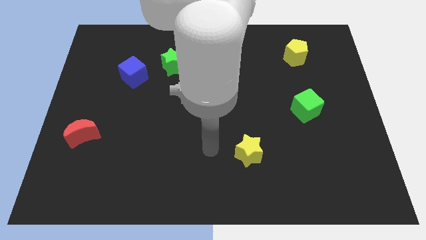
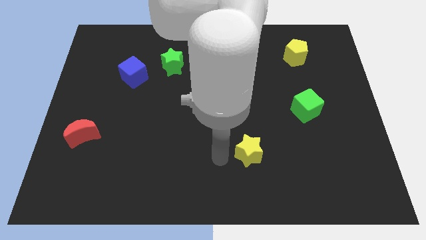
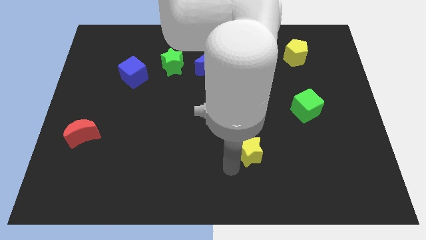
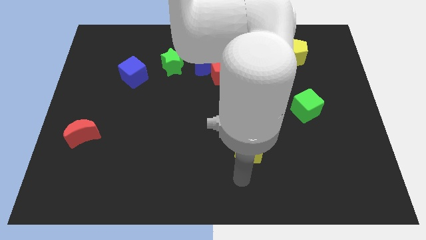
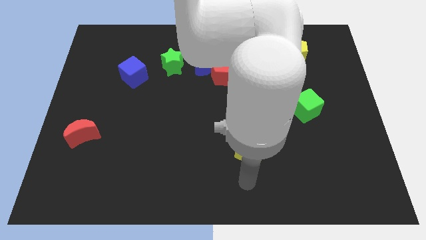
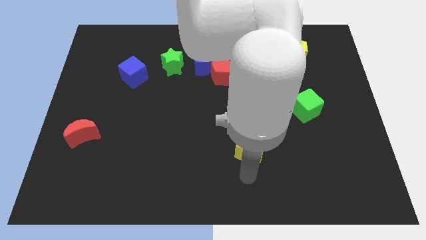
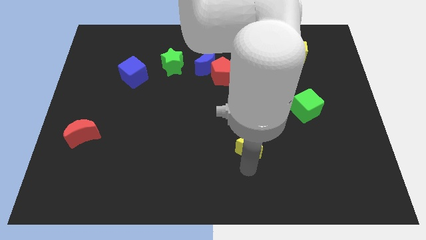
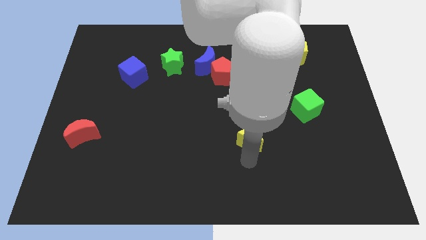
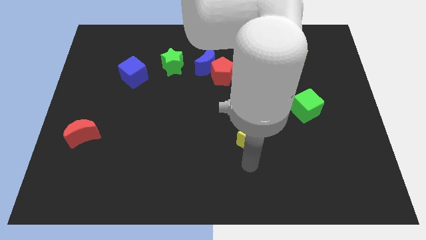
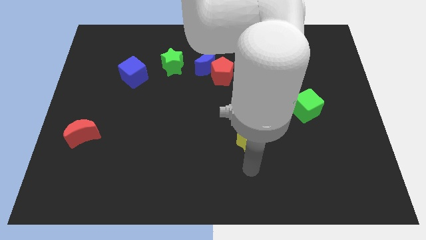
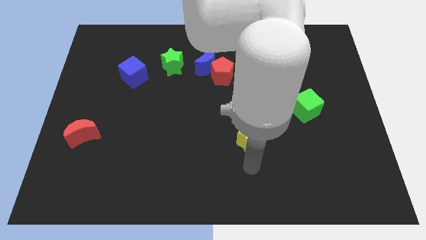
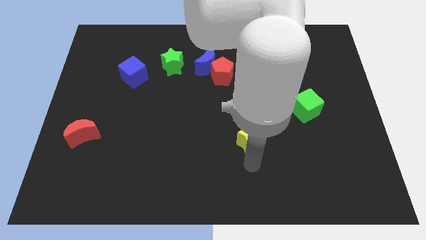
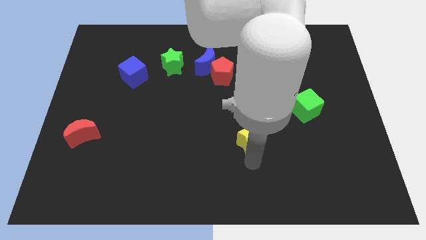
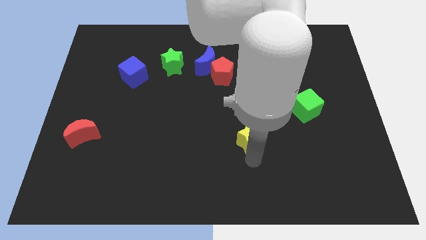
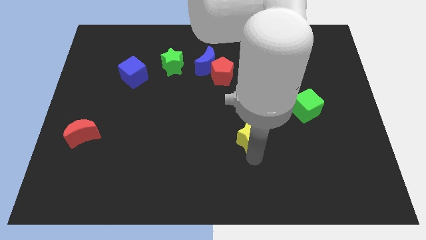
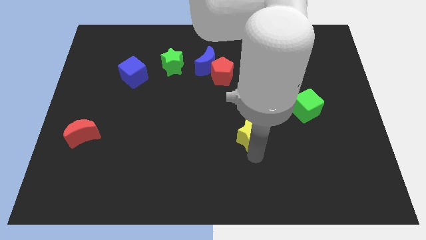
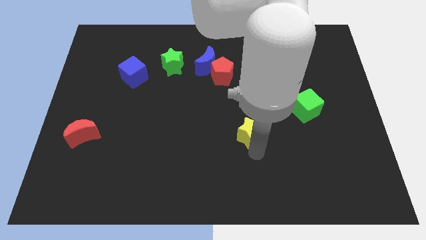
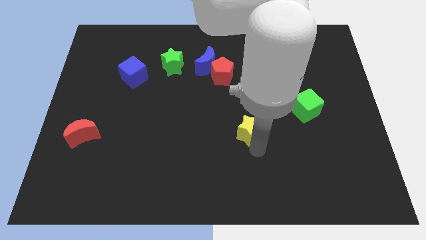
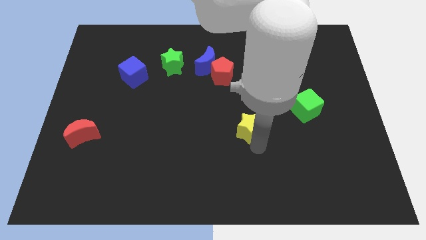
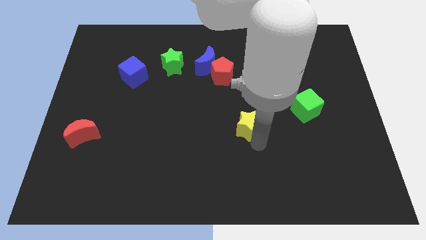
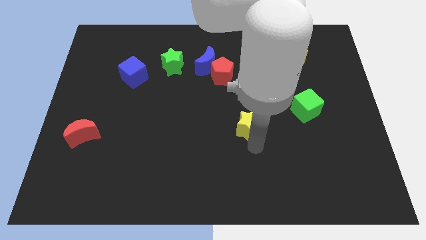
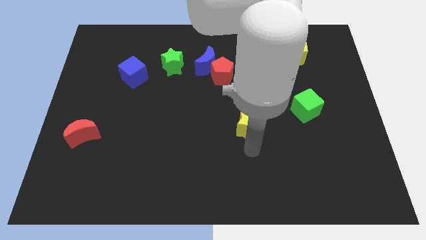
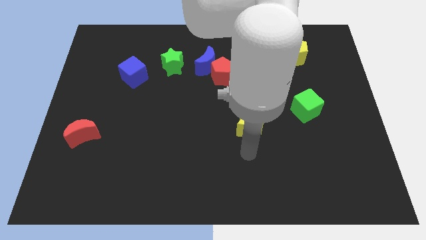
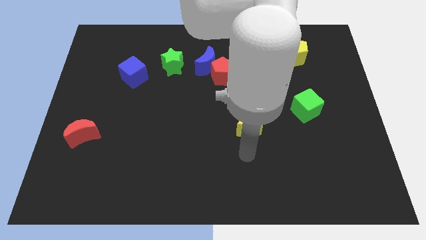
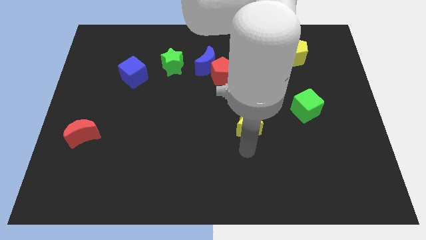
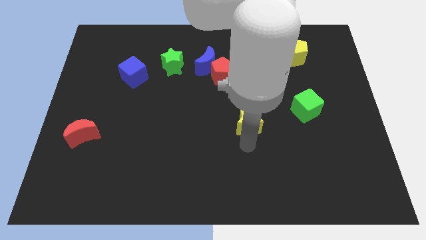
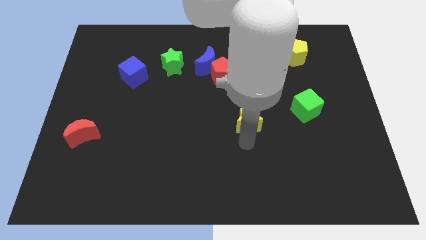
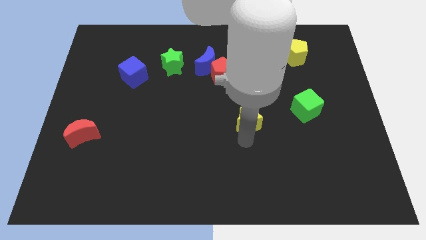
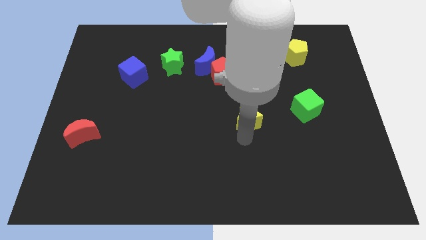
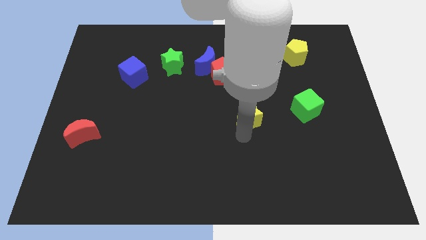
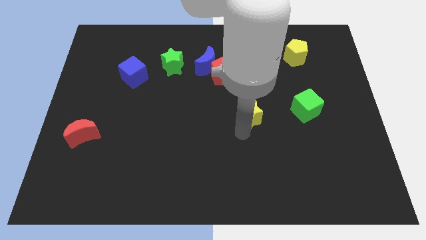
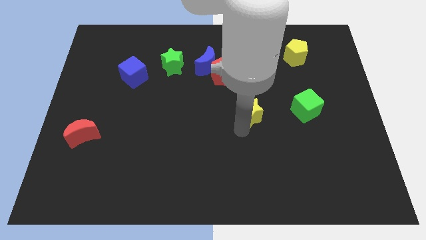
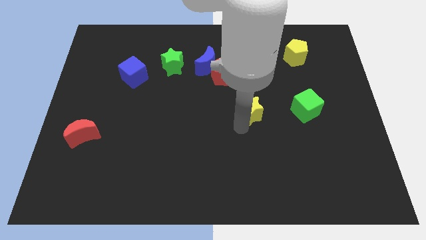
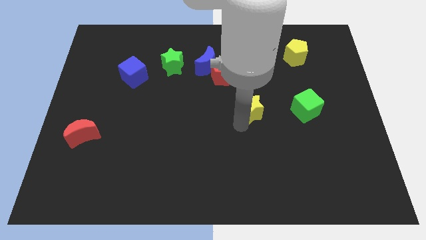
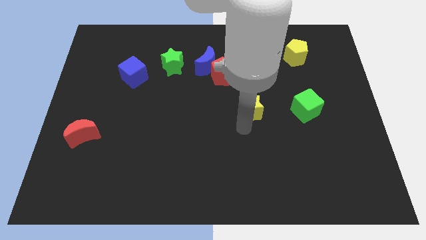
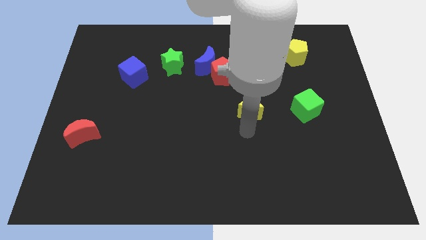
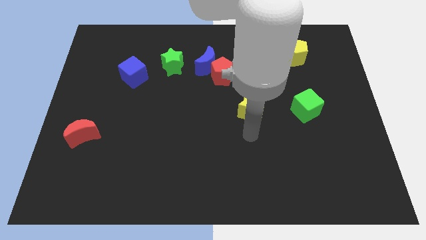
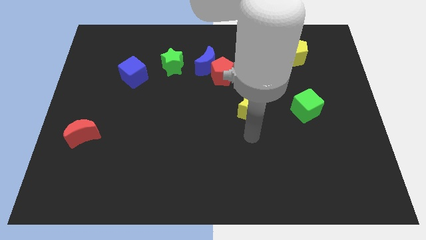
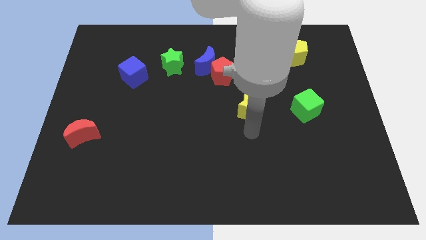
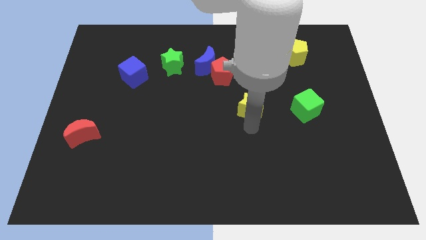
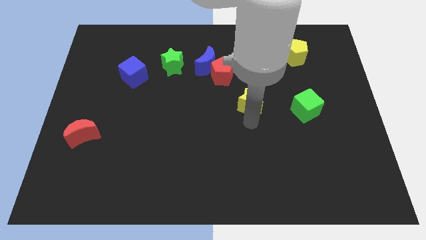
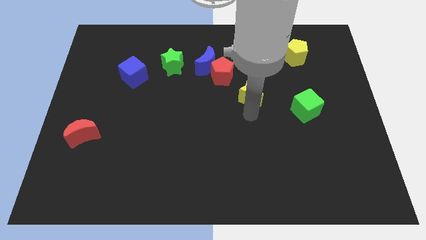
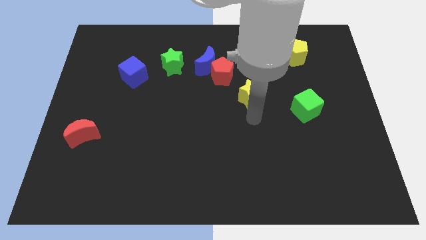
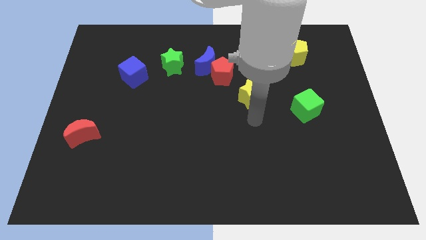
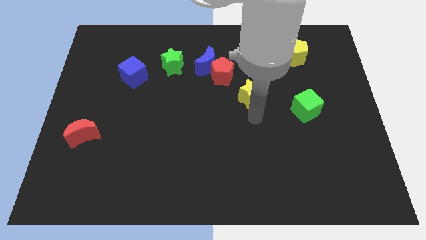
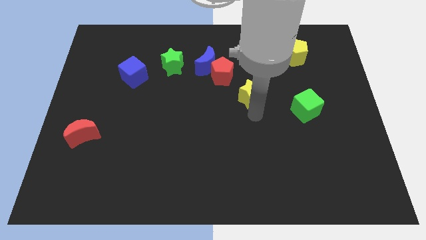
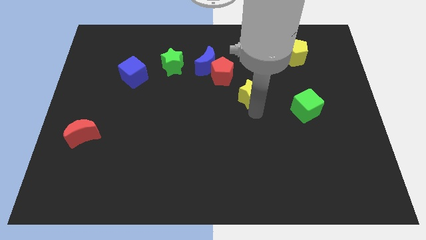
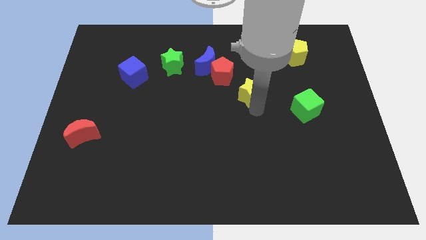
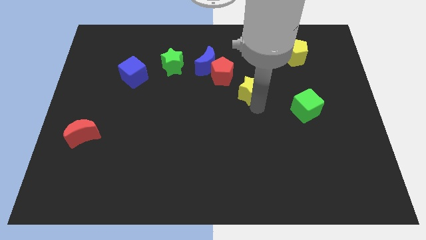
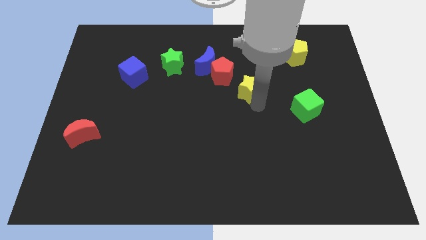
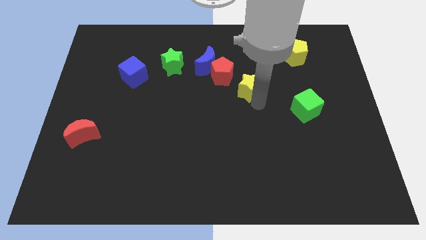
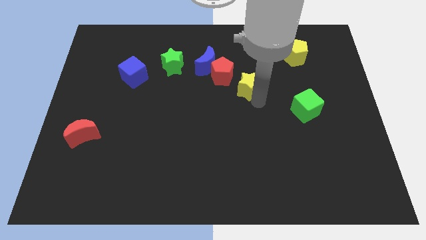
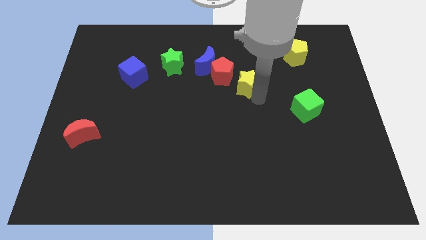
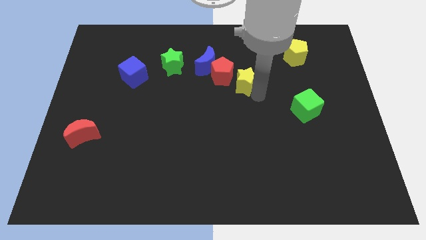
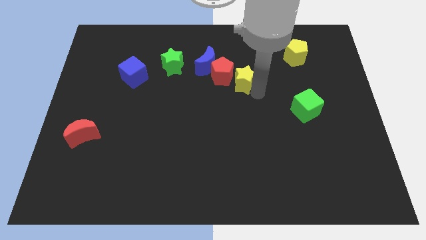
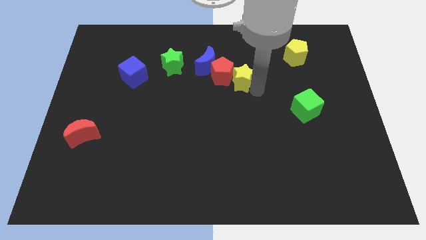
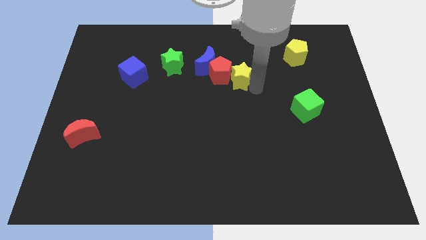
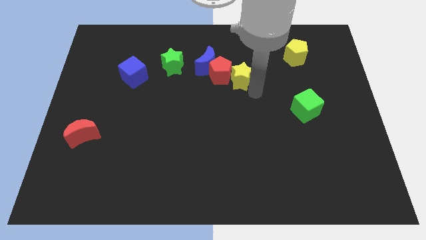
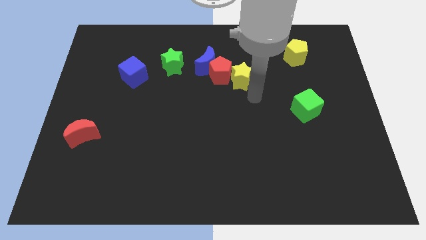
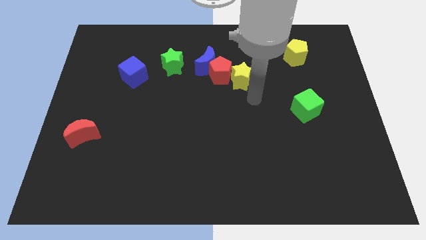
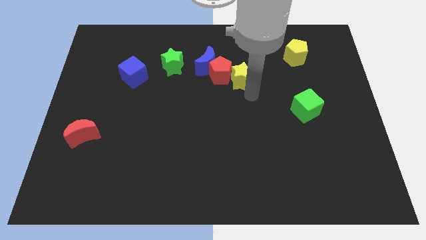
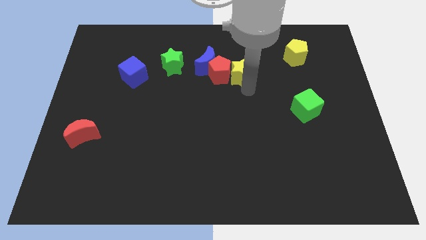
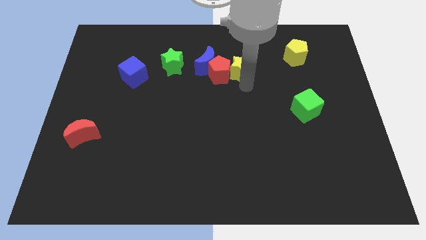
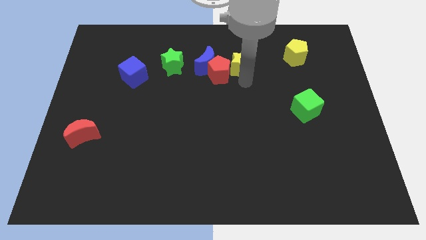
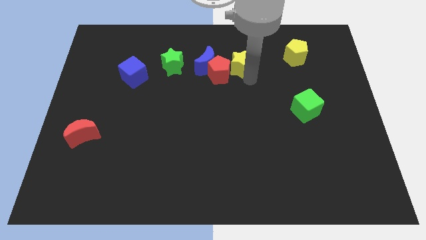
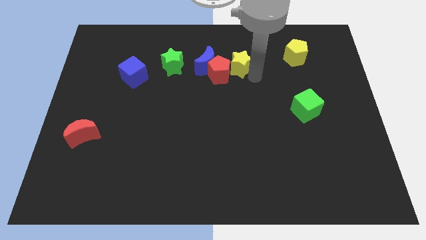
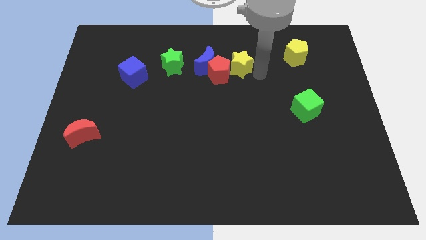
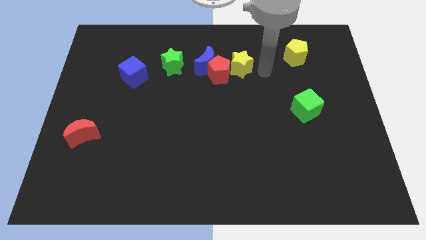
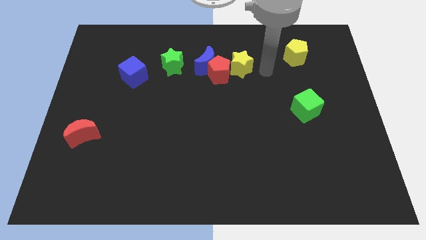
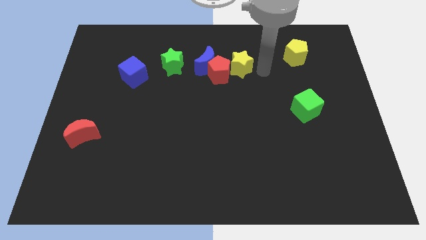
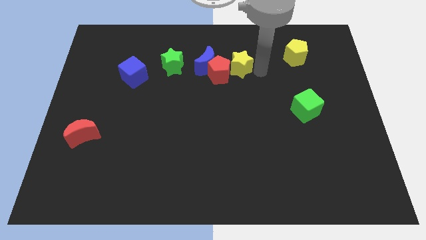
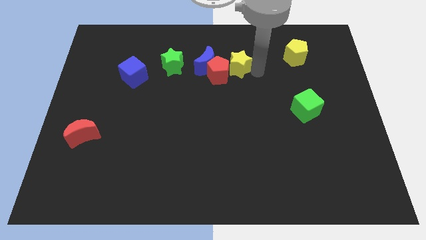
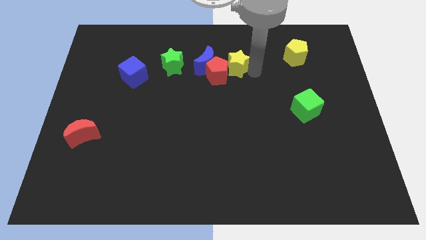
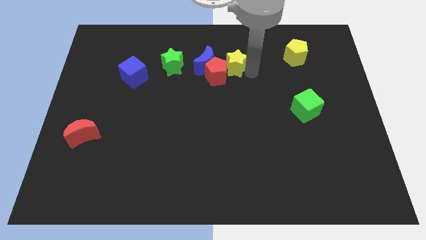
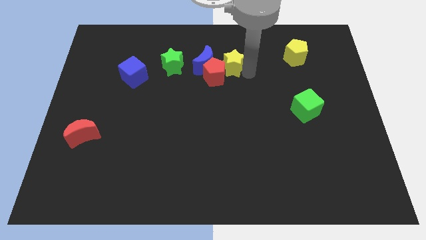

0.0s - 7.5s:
move the yellow star to the right side of the green star

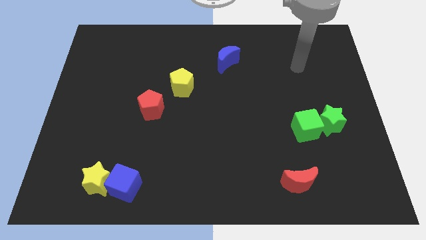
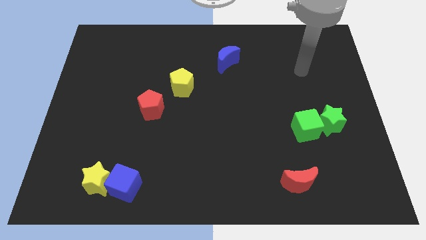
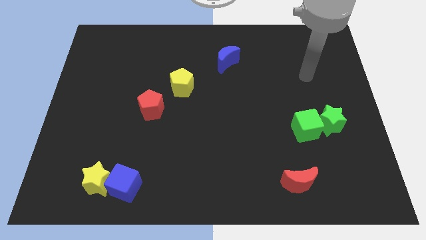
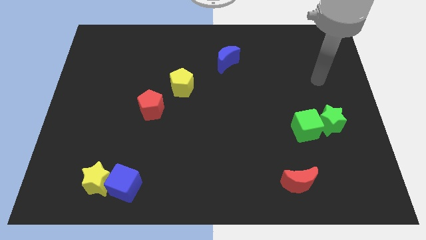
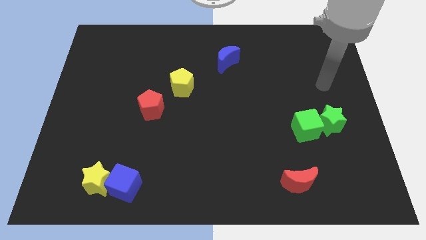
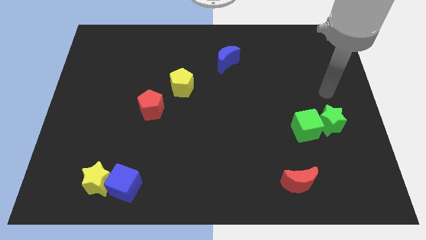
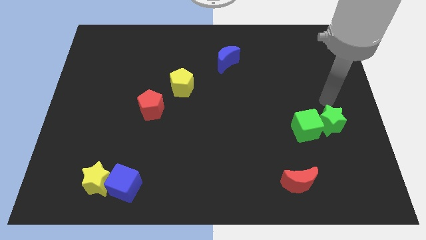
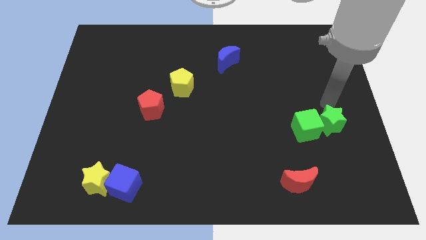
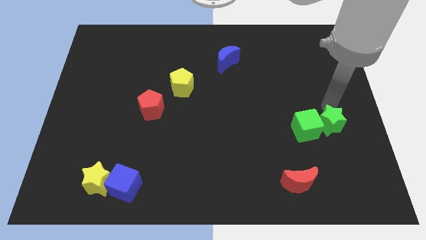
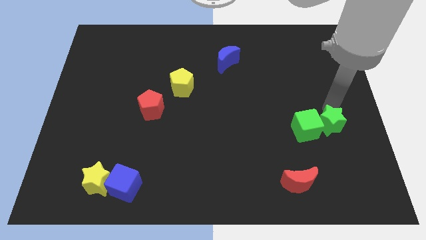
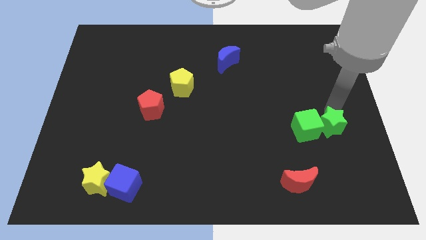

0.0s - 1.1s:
put the green star to the bottom right side of the green cube
